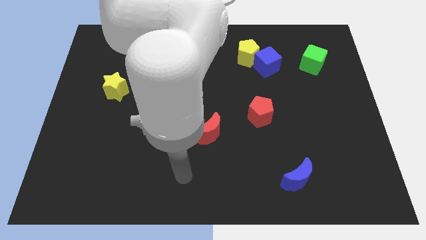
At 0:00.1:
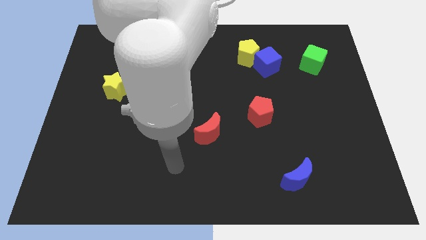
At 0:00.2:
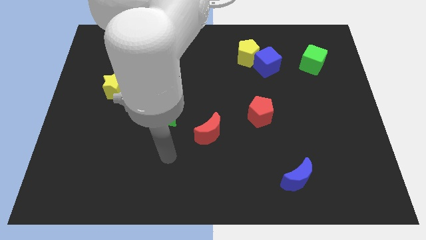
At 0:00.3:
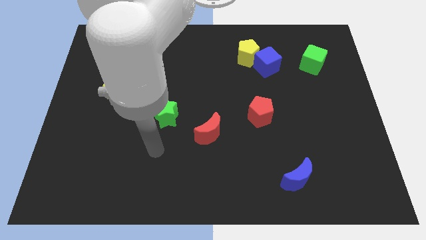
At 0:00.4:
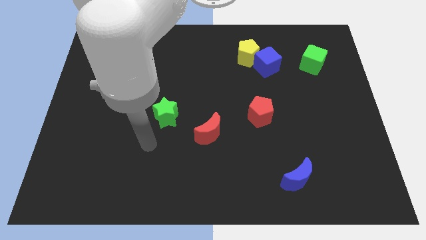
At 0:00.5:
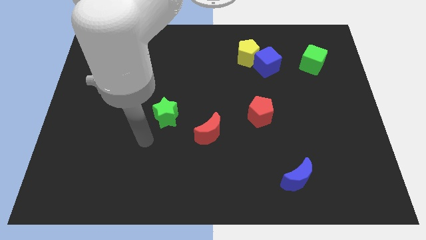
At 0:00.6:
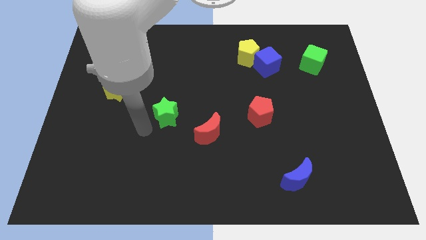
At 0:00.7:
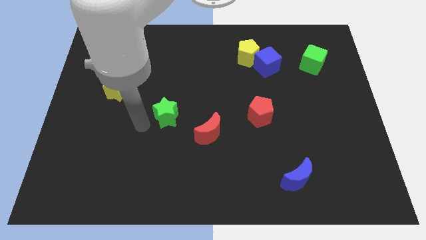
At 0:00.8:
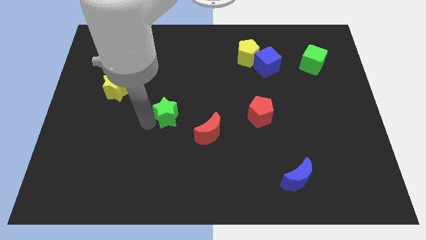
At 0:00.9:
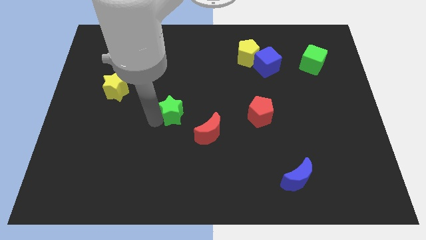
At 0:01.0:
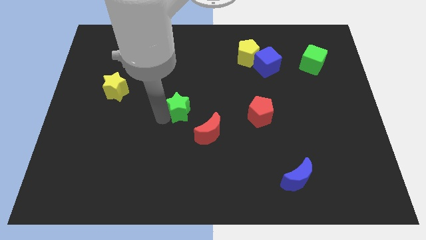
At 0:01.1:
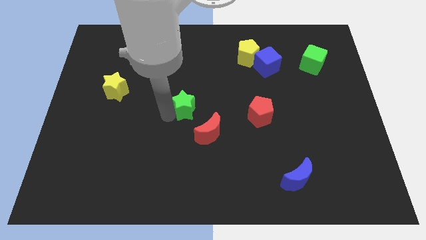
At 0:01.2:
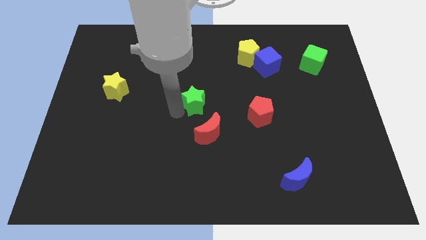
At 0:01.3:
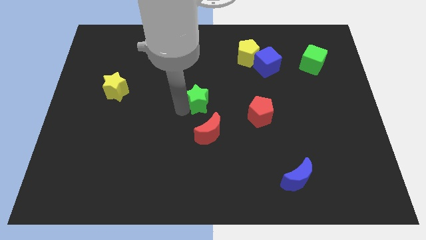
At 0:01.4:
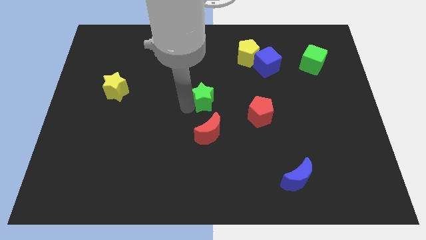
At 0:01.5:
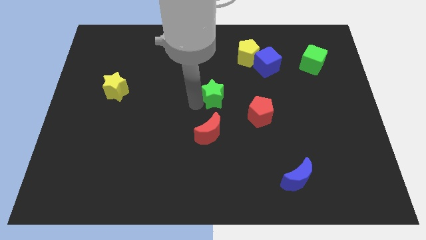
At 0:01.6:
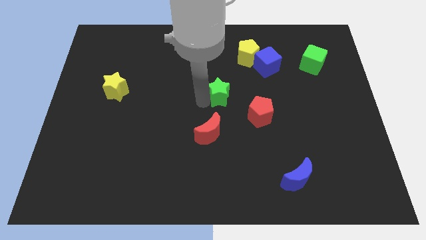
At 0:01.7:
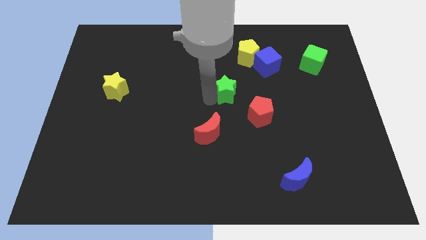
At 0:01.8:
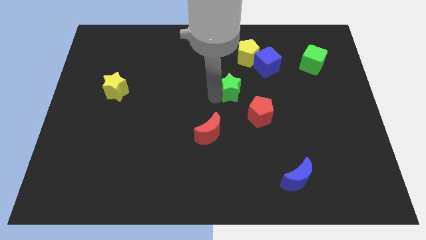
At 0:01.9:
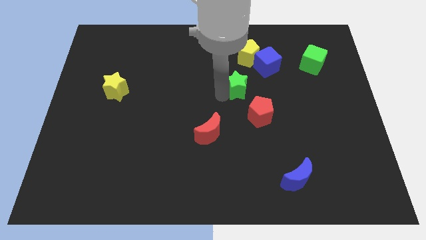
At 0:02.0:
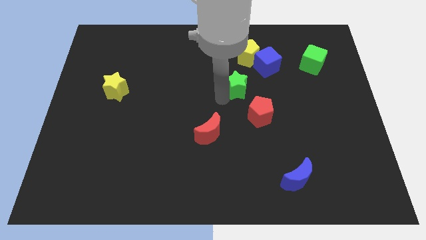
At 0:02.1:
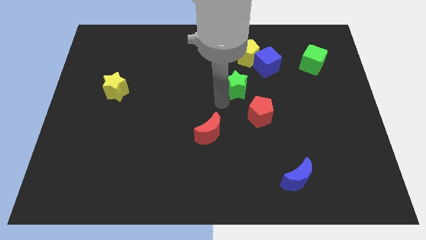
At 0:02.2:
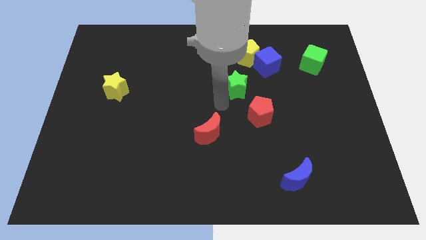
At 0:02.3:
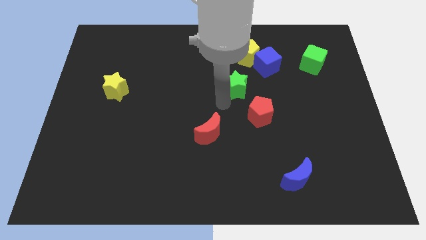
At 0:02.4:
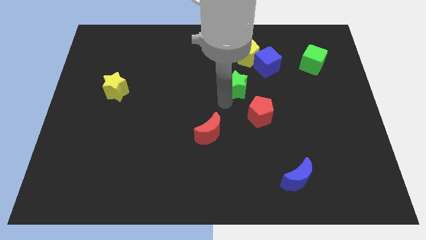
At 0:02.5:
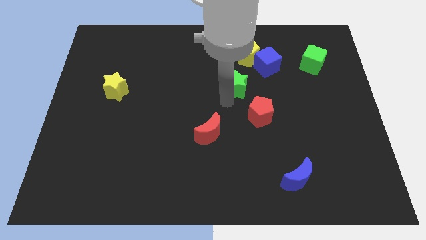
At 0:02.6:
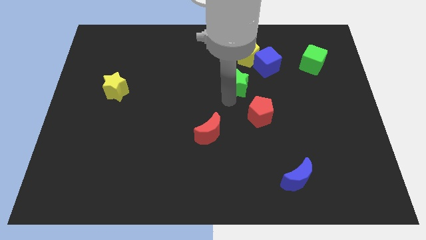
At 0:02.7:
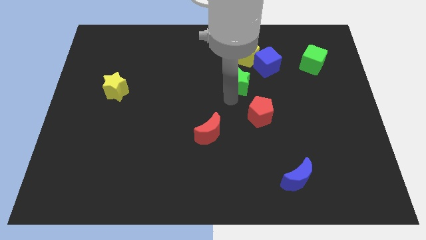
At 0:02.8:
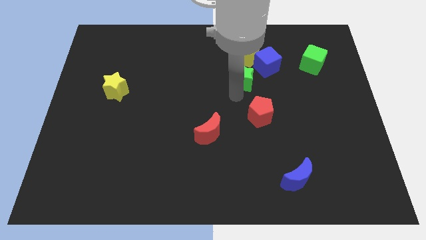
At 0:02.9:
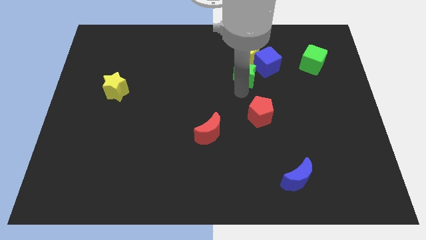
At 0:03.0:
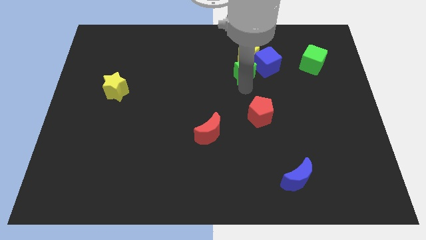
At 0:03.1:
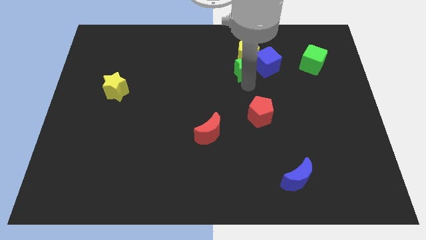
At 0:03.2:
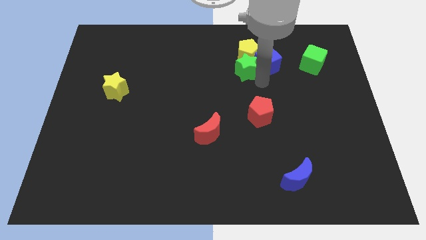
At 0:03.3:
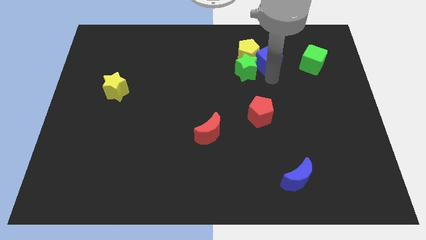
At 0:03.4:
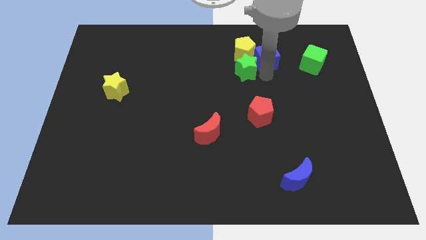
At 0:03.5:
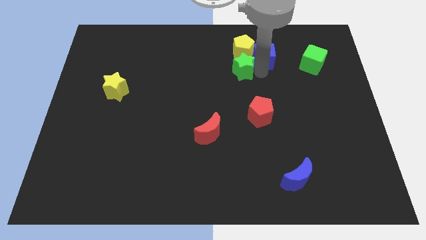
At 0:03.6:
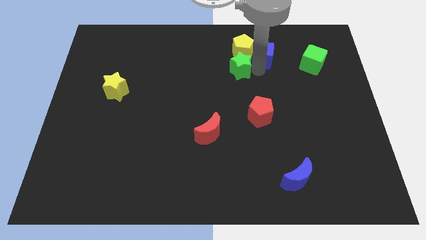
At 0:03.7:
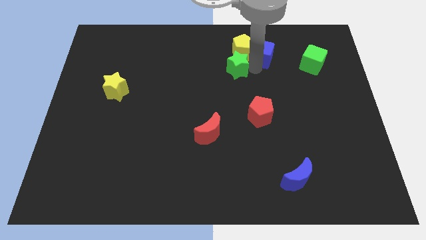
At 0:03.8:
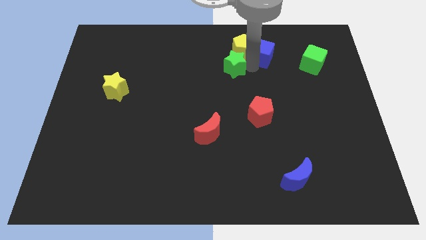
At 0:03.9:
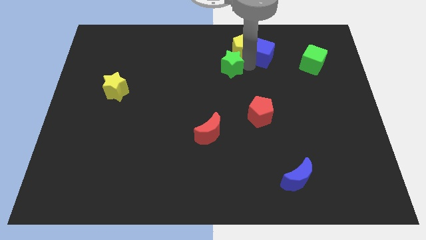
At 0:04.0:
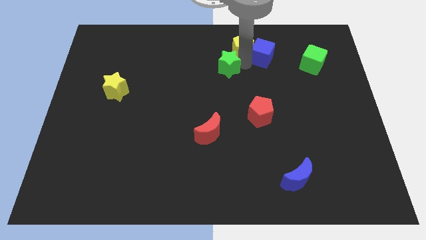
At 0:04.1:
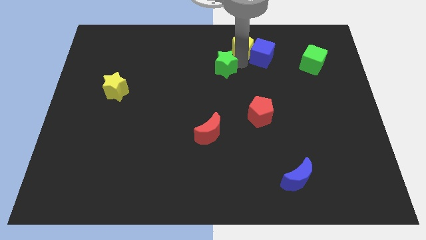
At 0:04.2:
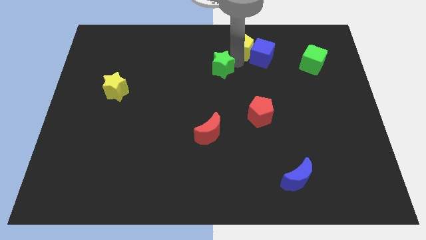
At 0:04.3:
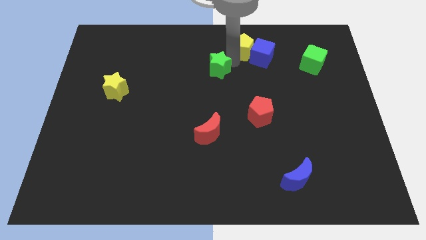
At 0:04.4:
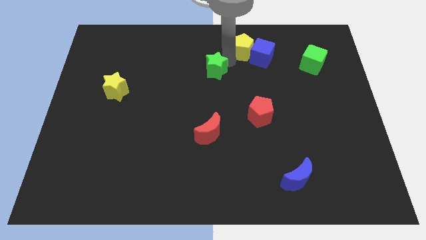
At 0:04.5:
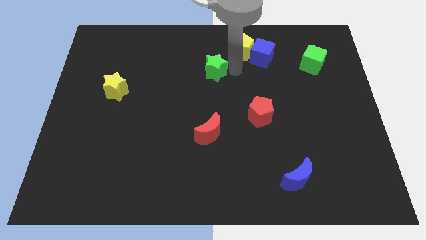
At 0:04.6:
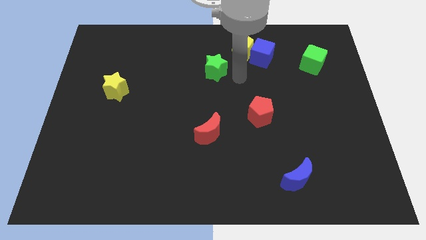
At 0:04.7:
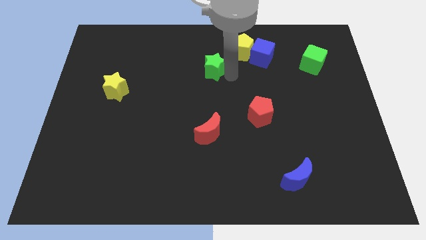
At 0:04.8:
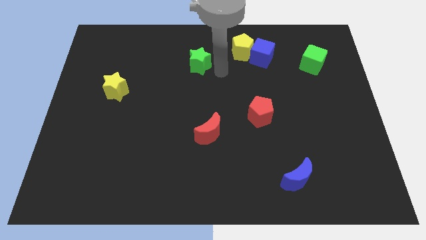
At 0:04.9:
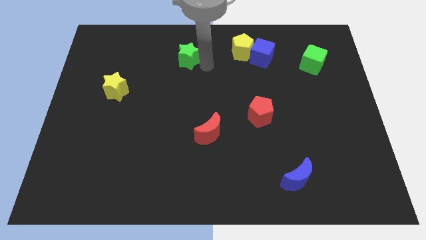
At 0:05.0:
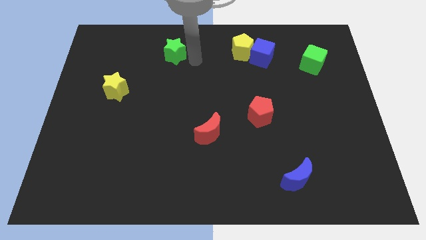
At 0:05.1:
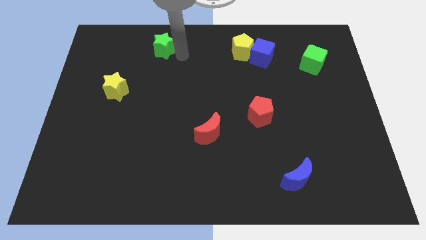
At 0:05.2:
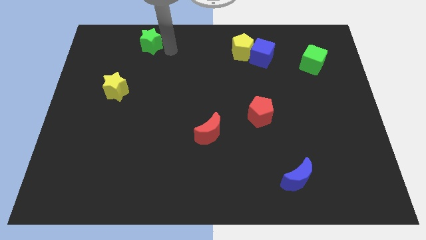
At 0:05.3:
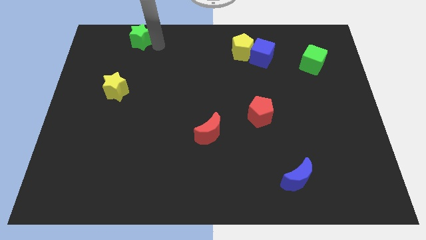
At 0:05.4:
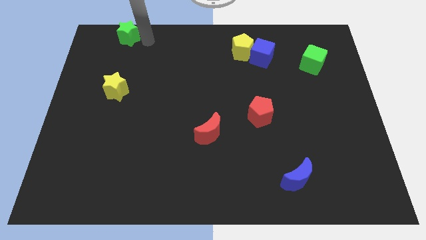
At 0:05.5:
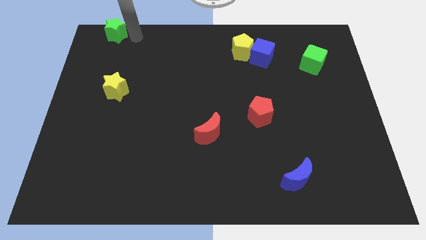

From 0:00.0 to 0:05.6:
move the green star to the top left
